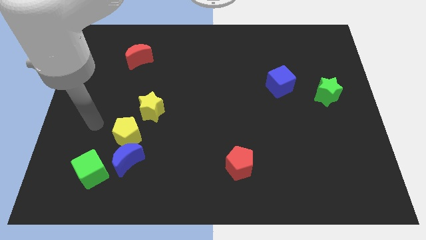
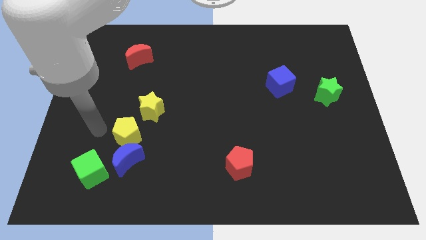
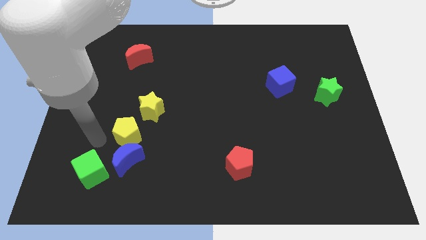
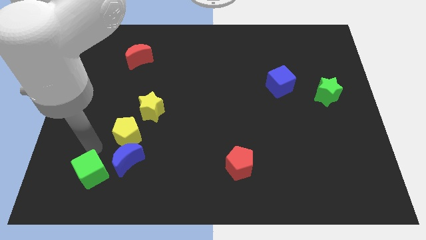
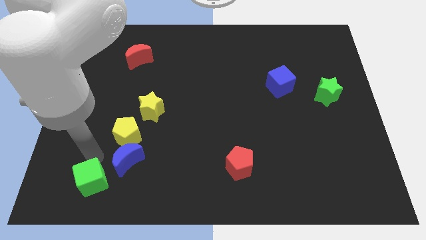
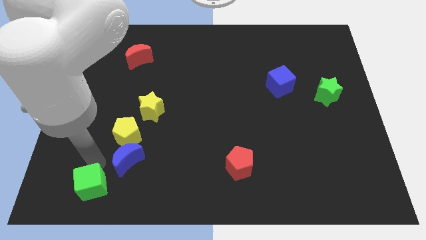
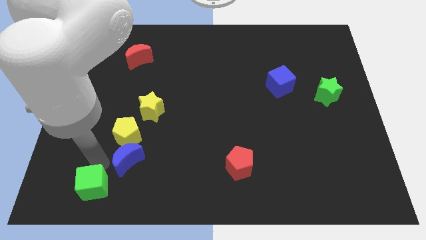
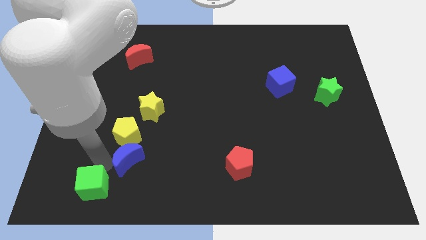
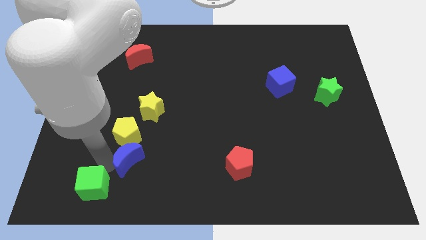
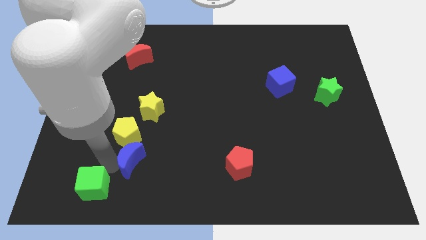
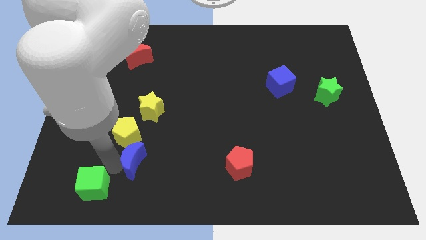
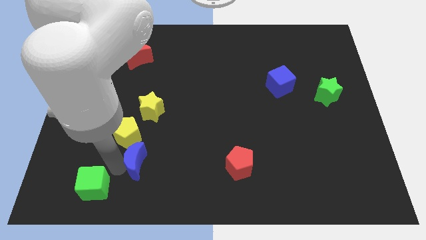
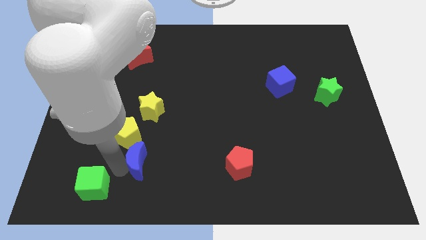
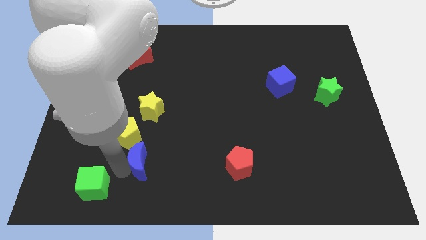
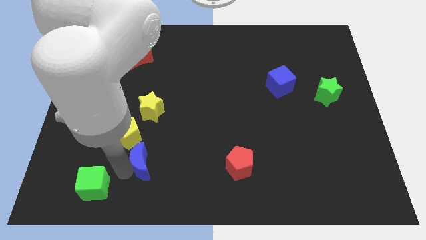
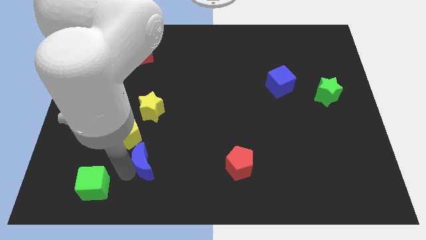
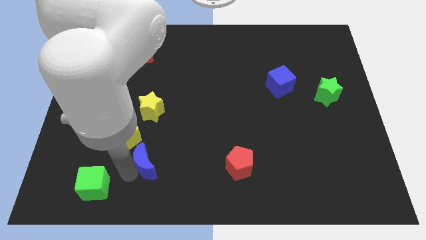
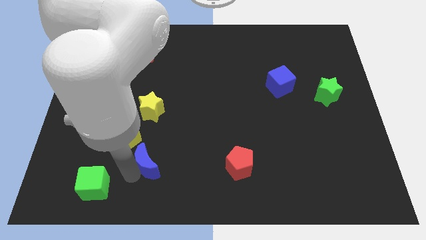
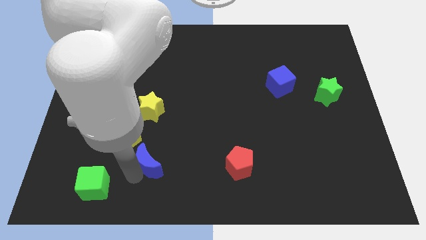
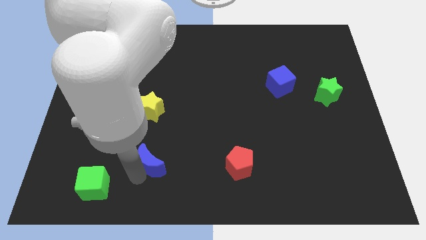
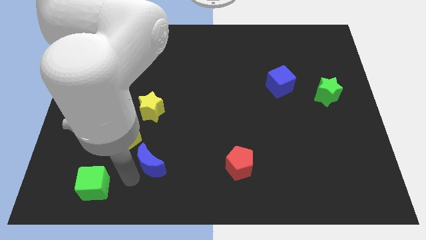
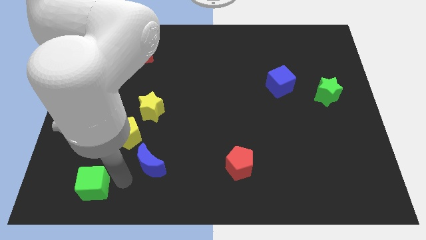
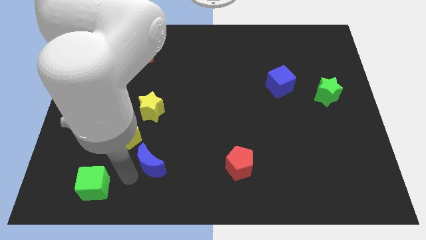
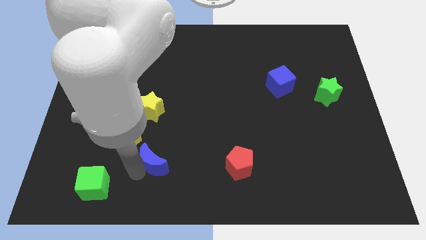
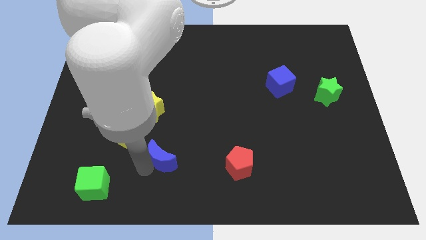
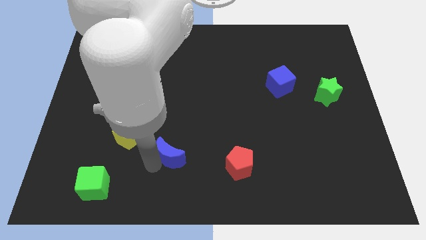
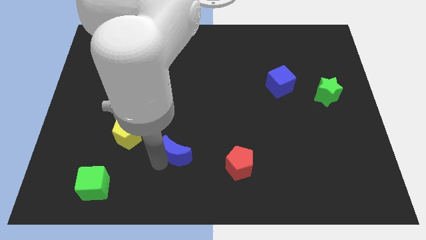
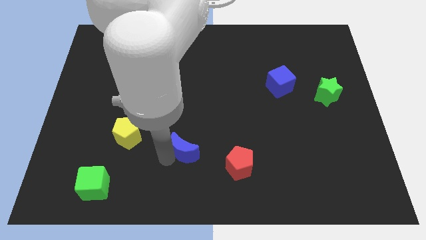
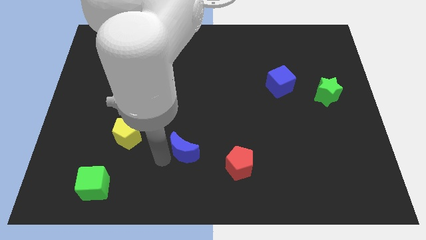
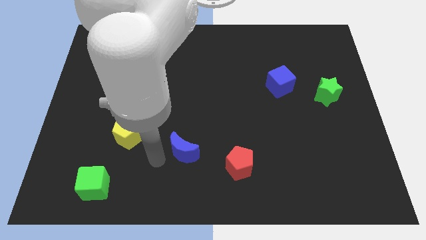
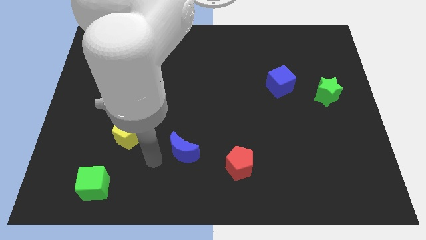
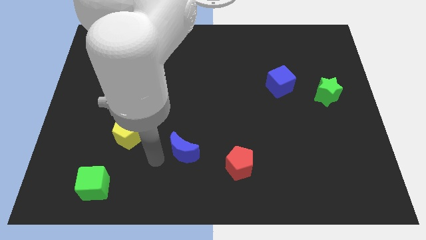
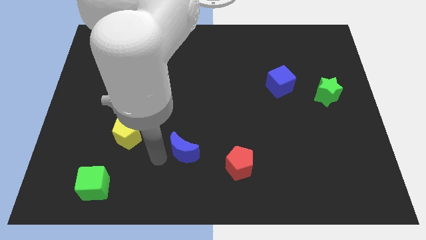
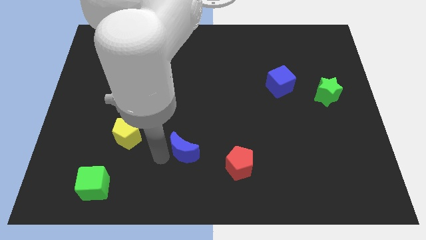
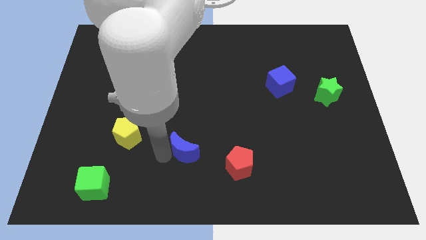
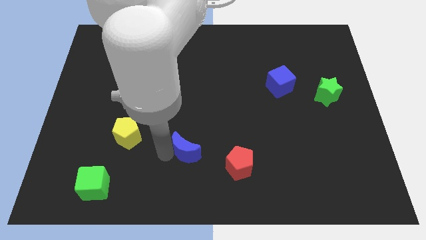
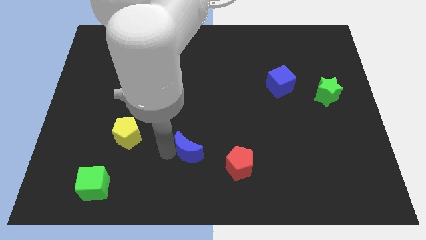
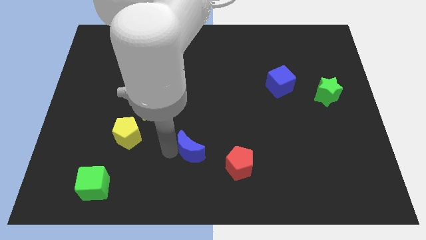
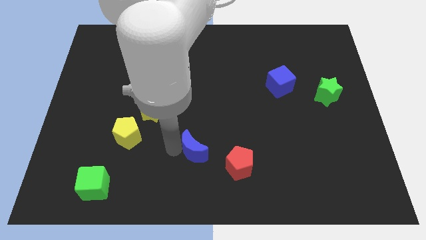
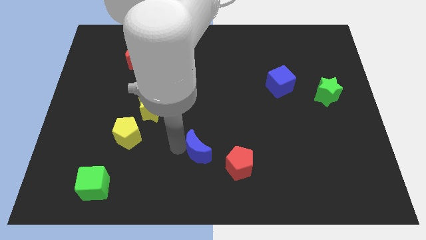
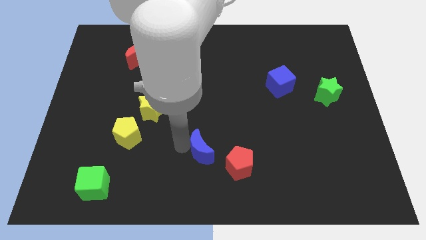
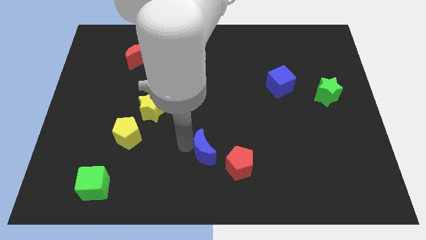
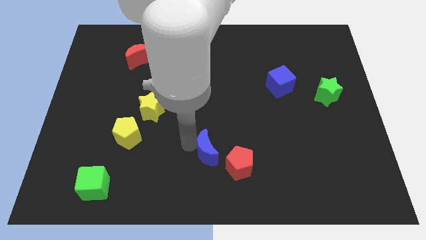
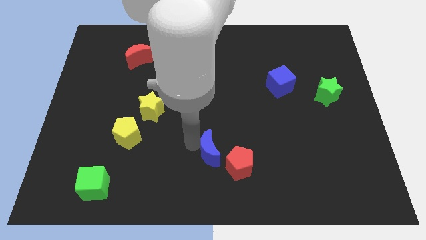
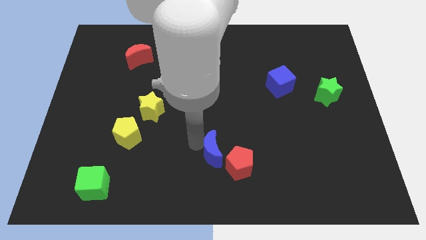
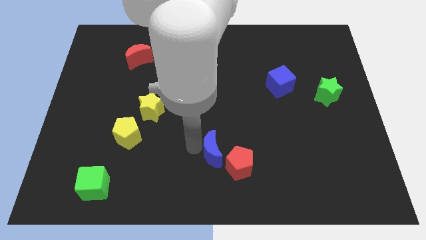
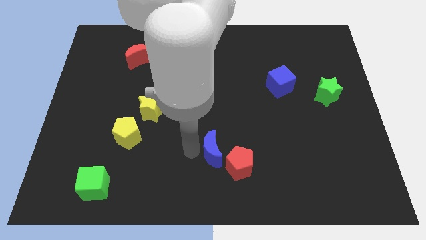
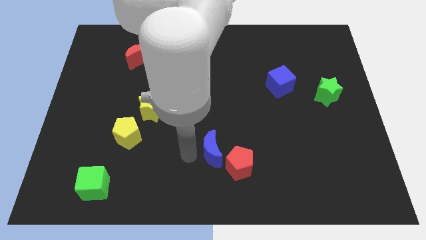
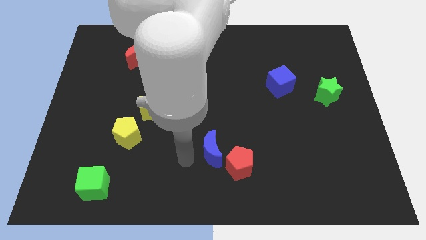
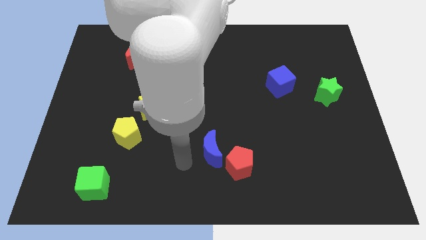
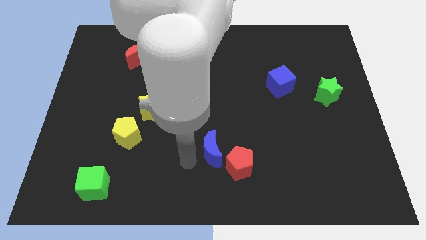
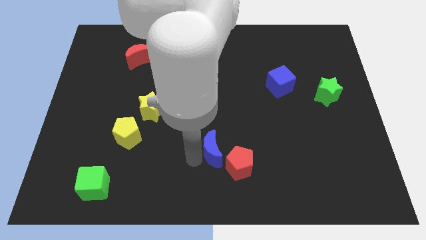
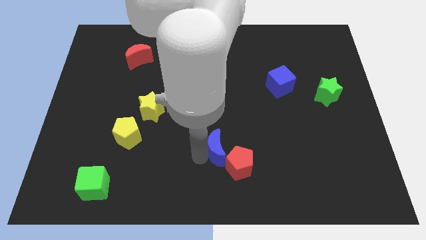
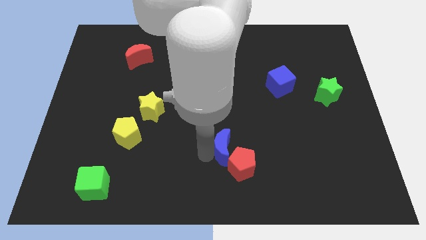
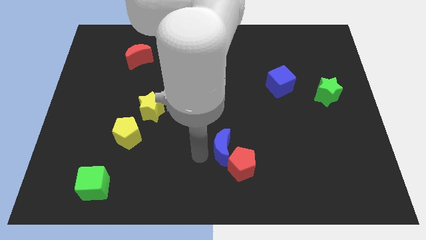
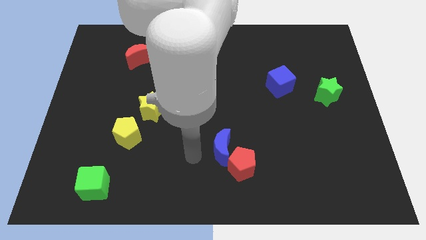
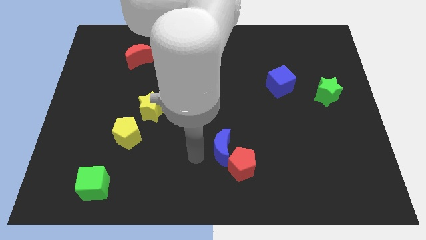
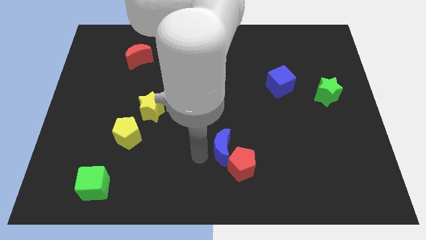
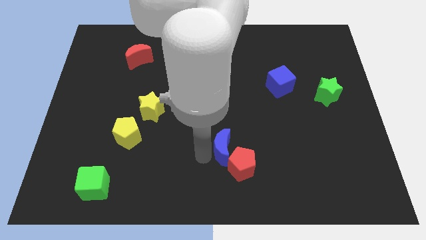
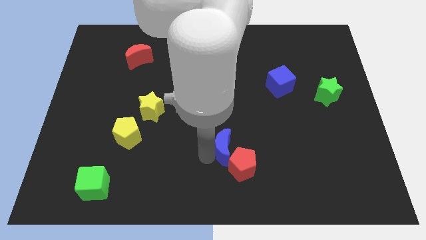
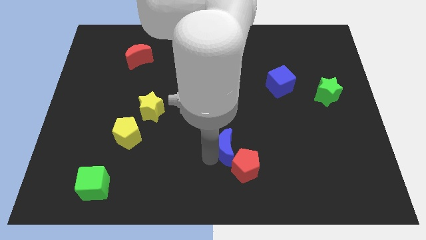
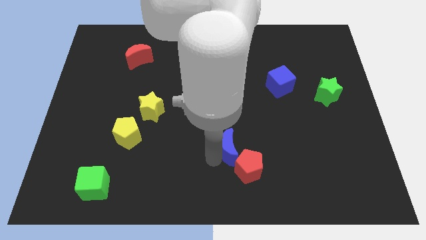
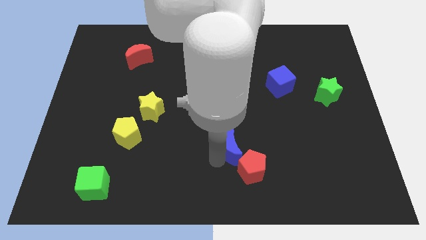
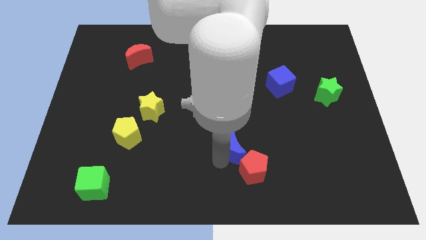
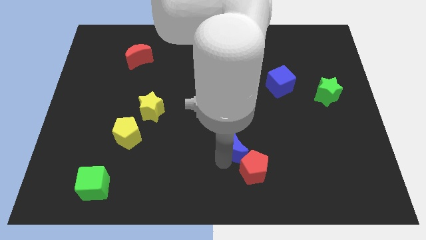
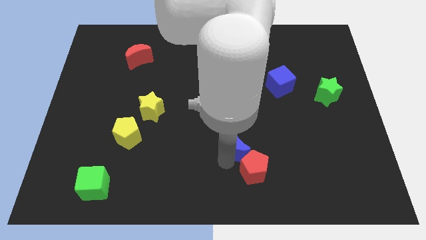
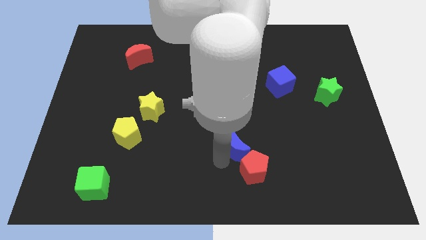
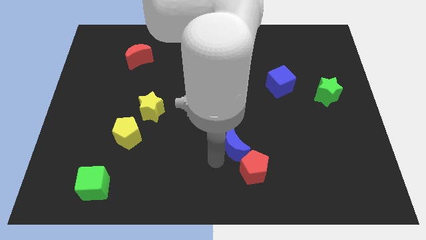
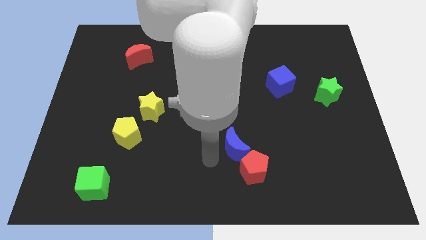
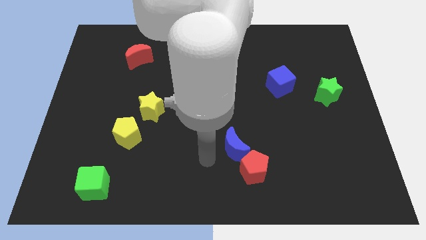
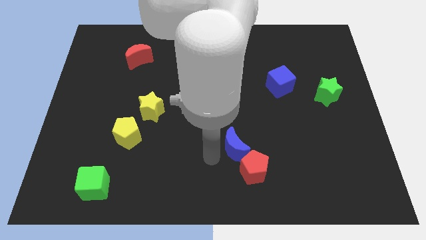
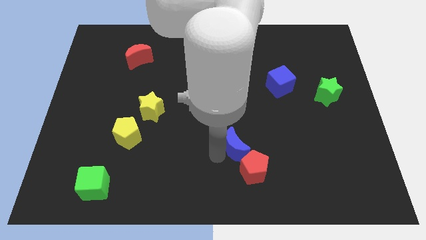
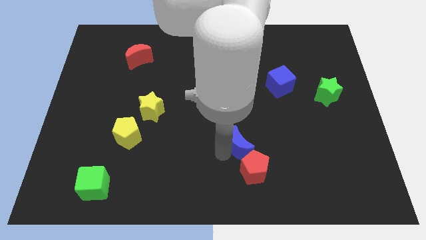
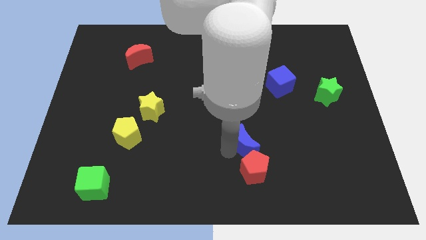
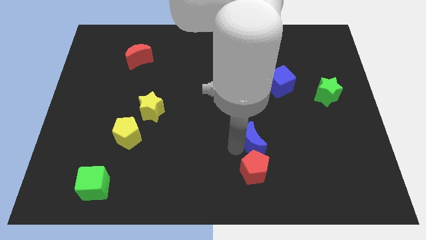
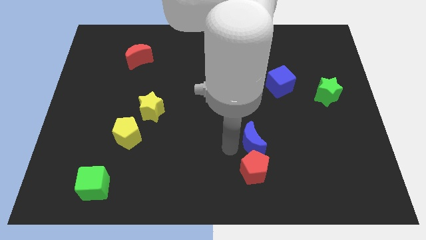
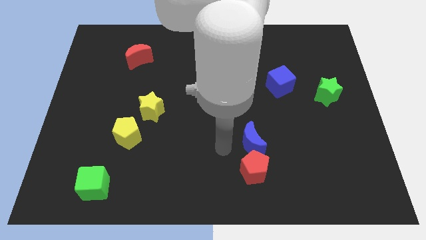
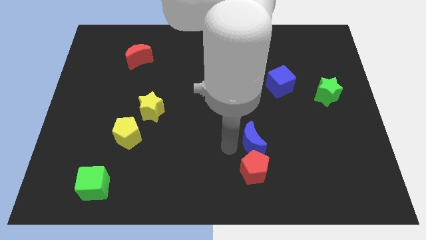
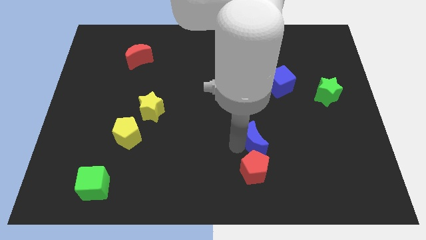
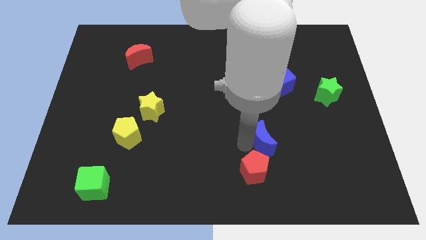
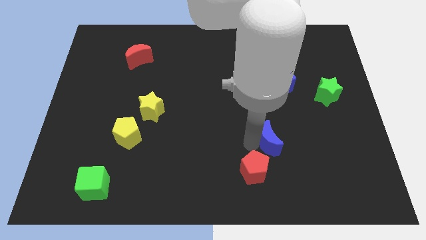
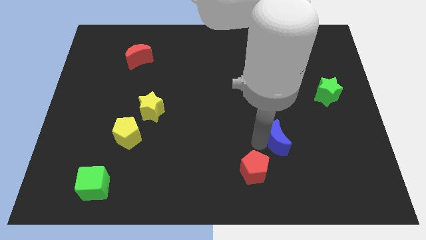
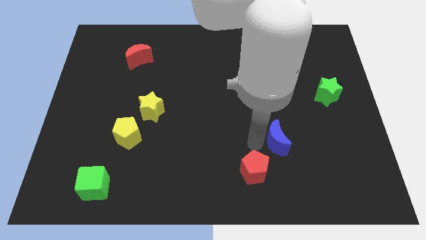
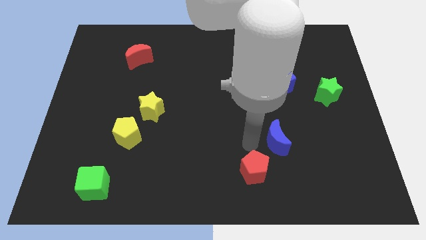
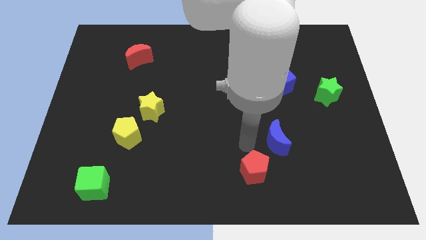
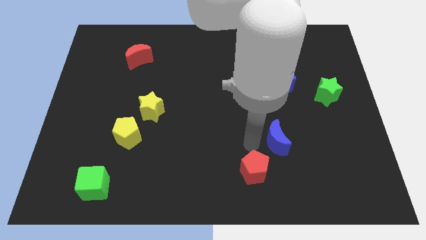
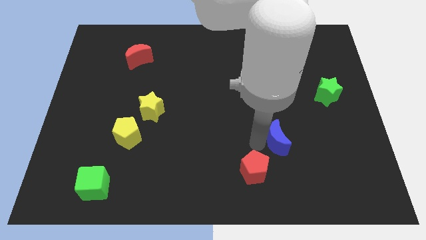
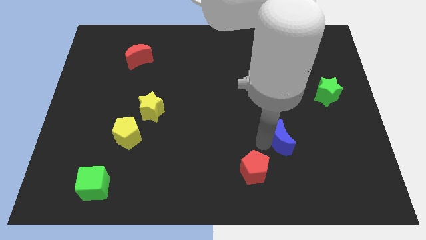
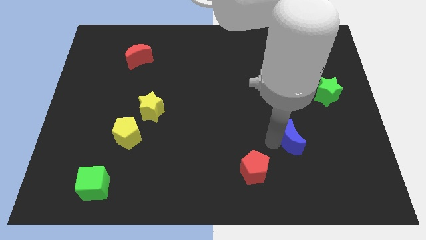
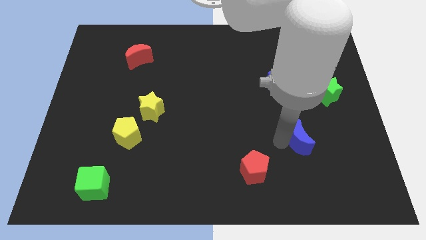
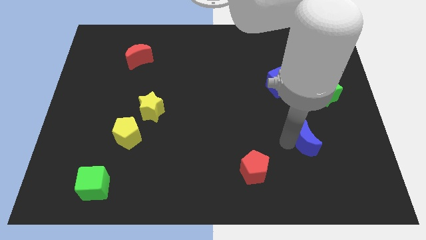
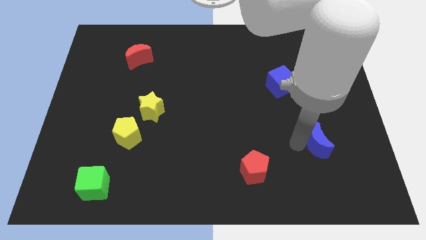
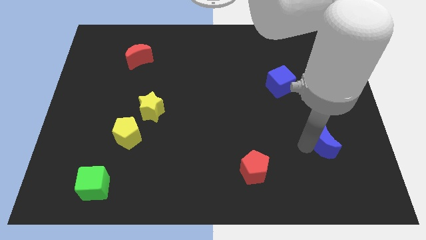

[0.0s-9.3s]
put the blue moon to the bottom of the green star
